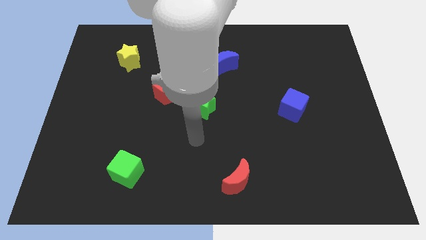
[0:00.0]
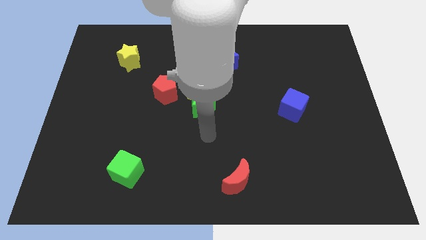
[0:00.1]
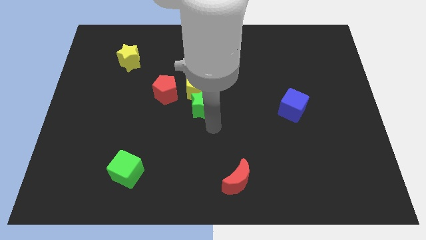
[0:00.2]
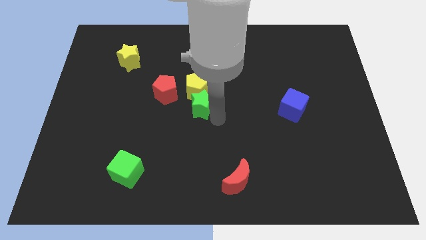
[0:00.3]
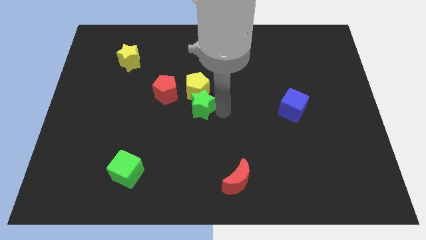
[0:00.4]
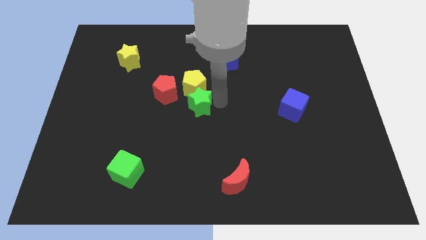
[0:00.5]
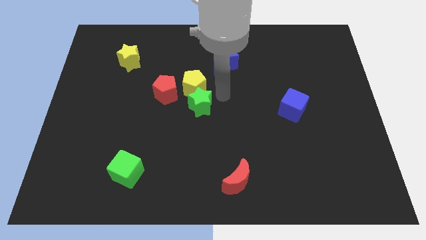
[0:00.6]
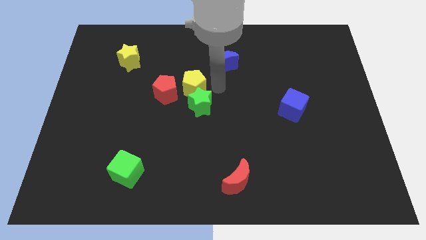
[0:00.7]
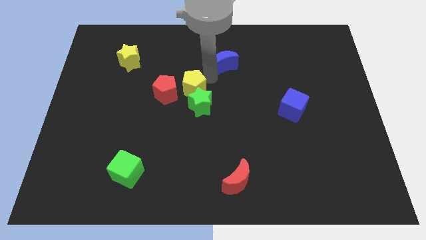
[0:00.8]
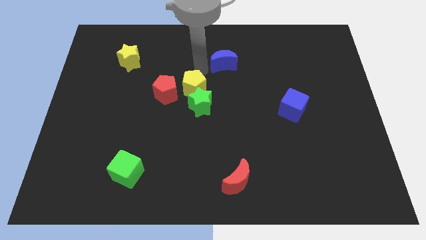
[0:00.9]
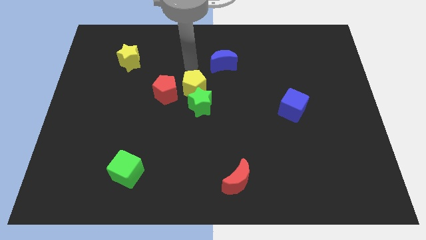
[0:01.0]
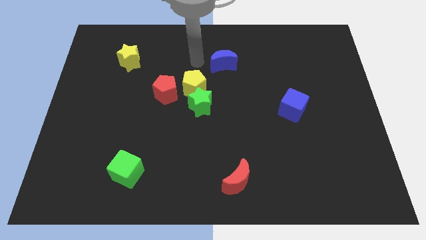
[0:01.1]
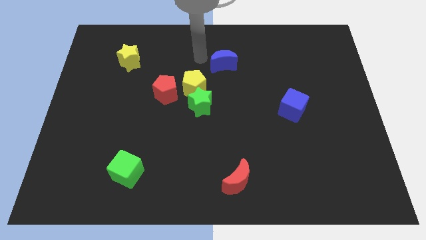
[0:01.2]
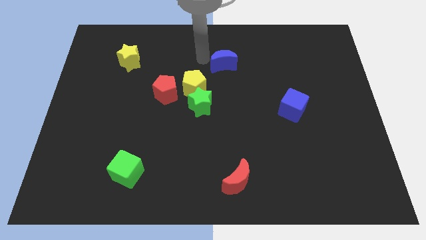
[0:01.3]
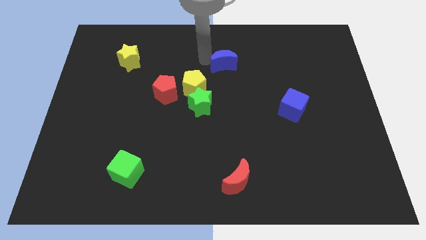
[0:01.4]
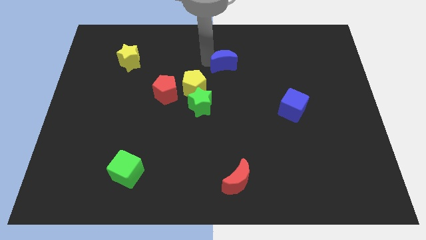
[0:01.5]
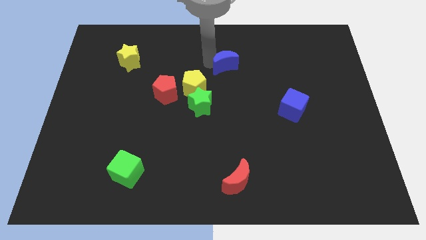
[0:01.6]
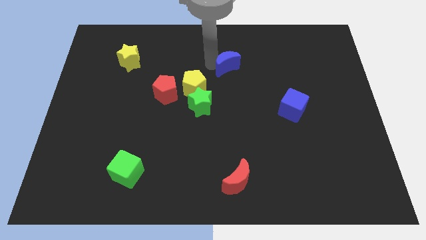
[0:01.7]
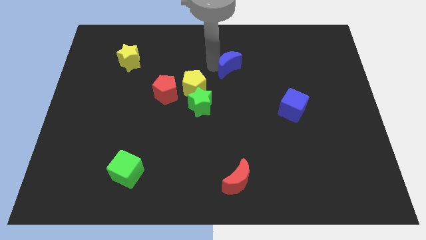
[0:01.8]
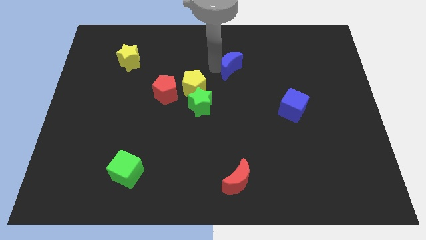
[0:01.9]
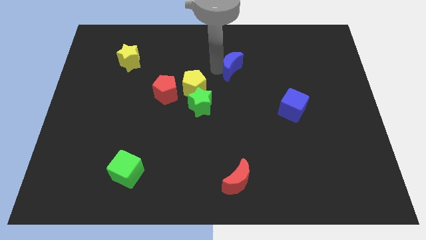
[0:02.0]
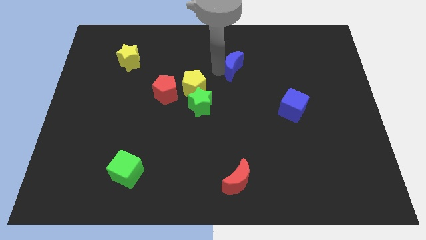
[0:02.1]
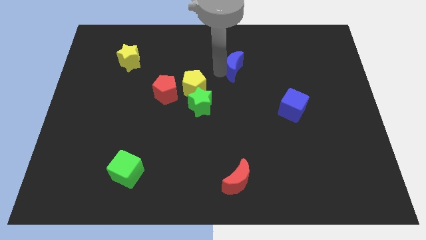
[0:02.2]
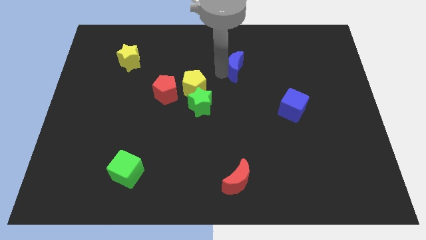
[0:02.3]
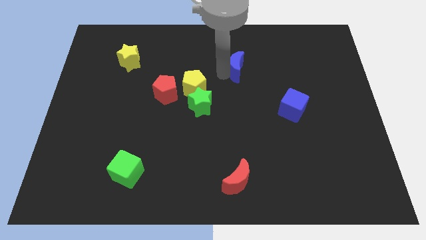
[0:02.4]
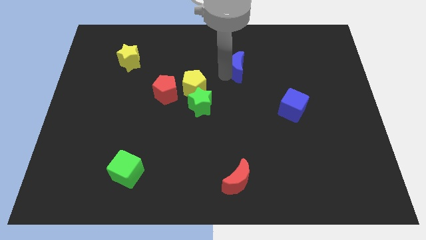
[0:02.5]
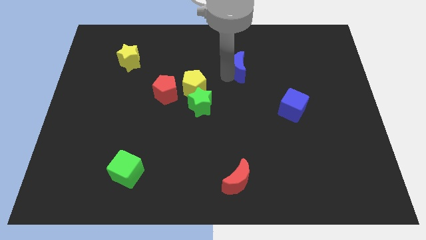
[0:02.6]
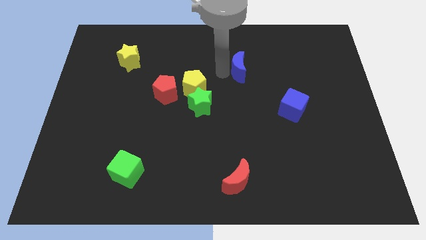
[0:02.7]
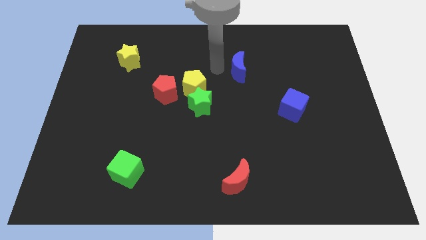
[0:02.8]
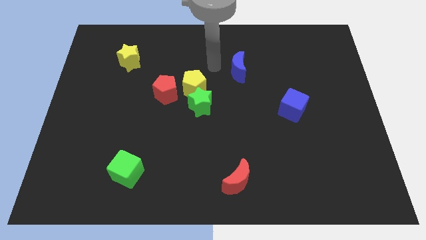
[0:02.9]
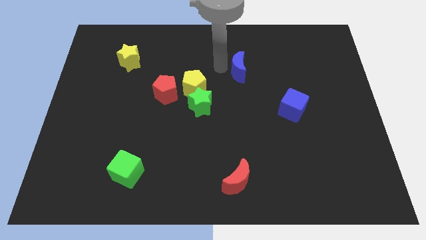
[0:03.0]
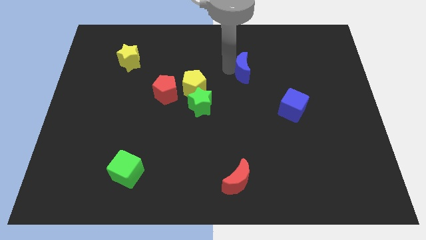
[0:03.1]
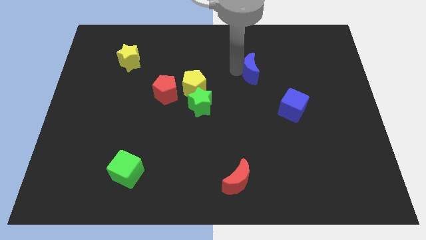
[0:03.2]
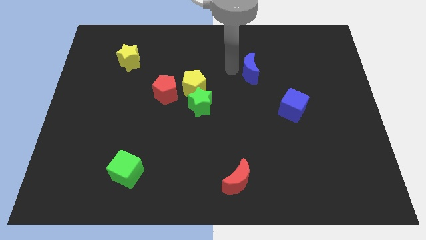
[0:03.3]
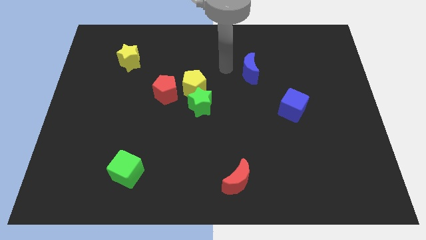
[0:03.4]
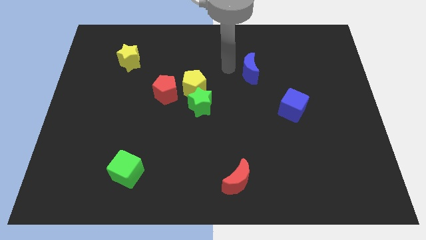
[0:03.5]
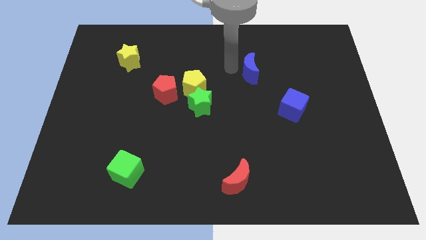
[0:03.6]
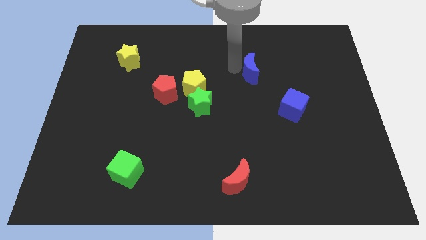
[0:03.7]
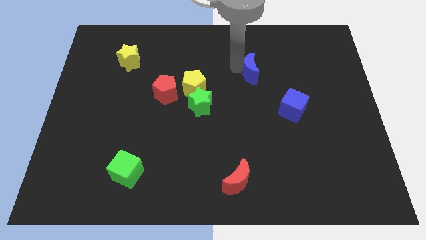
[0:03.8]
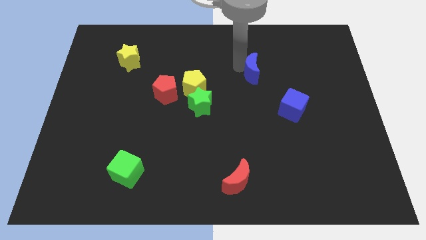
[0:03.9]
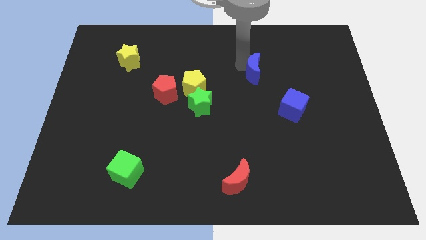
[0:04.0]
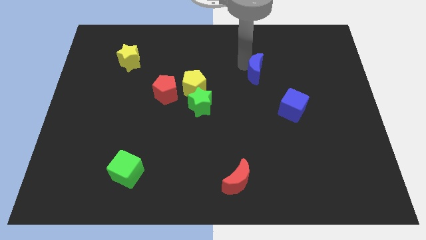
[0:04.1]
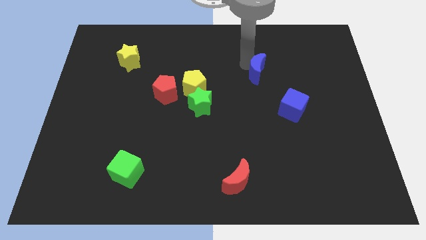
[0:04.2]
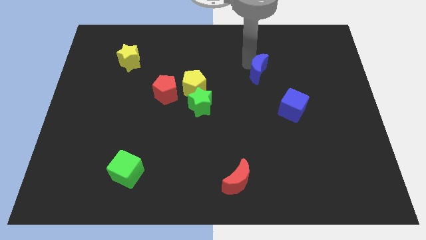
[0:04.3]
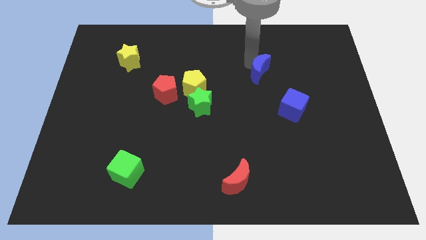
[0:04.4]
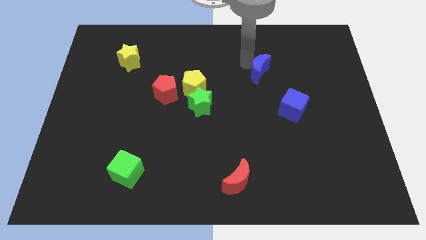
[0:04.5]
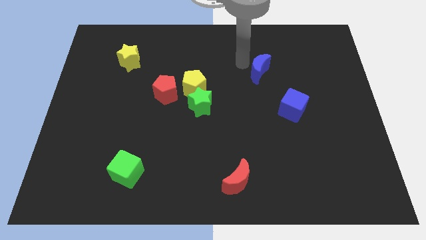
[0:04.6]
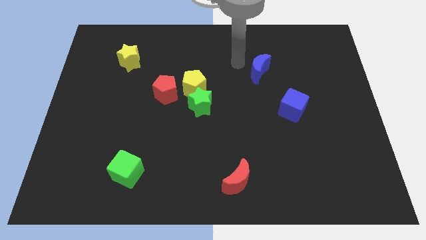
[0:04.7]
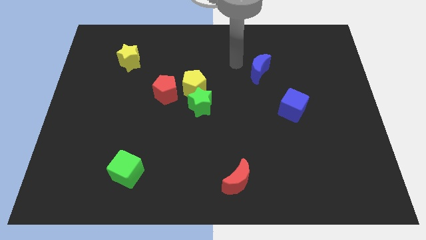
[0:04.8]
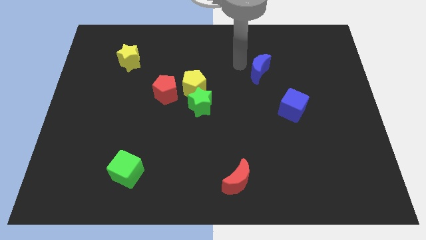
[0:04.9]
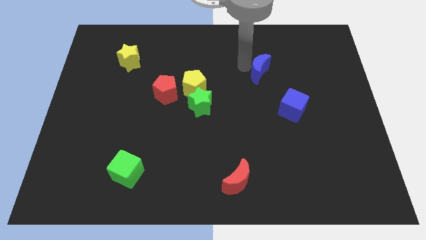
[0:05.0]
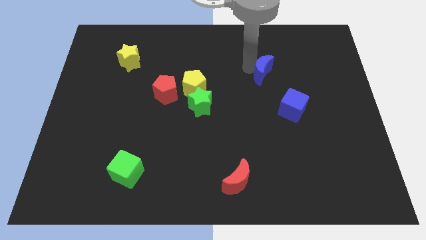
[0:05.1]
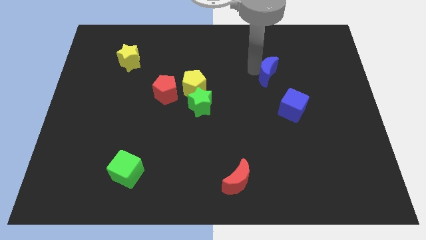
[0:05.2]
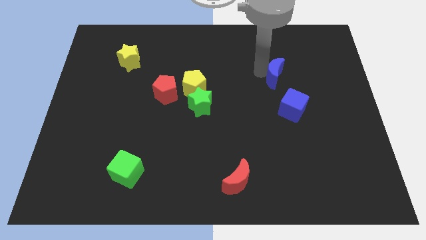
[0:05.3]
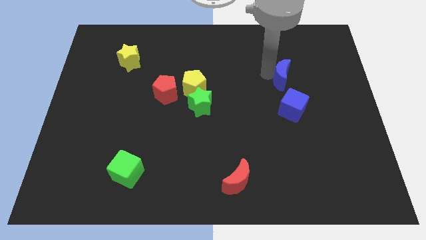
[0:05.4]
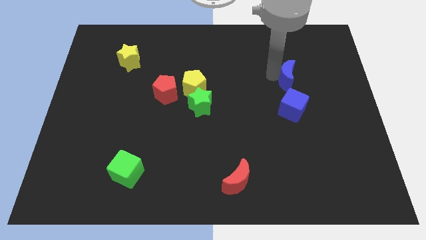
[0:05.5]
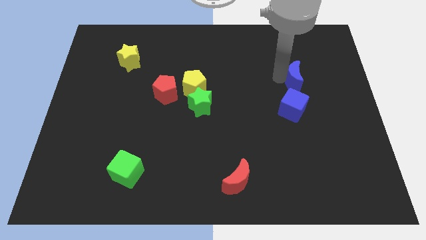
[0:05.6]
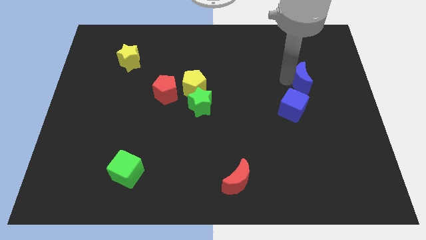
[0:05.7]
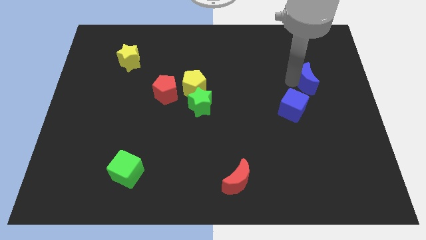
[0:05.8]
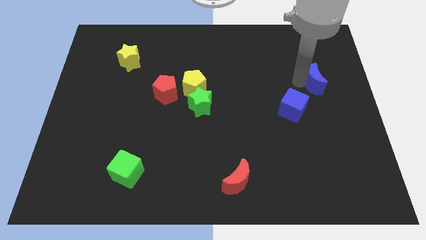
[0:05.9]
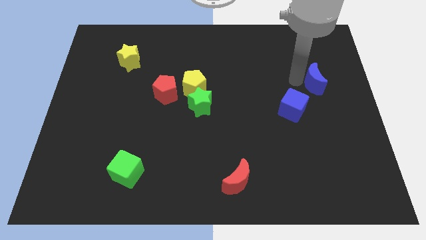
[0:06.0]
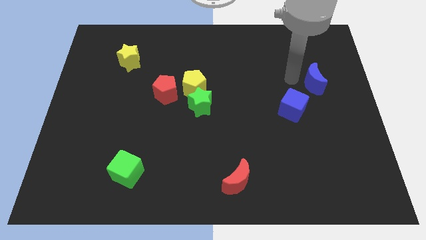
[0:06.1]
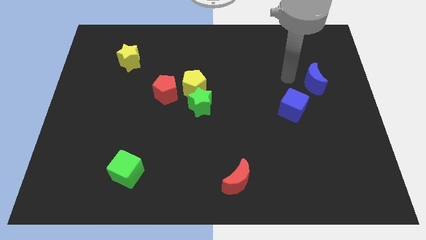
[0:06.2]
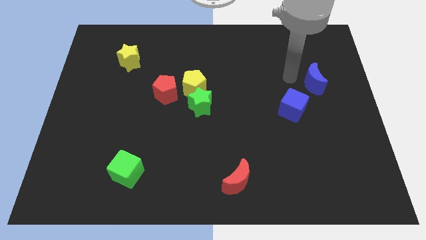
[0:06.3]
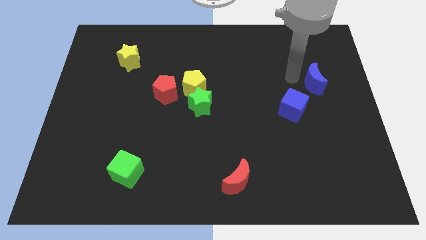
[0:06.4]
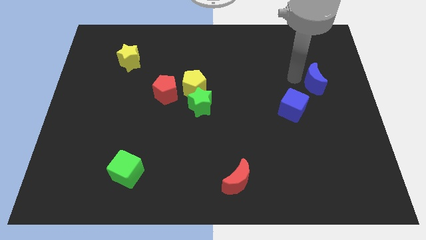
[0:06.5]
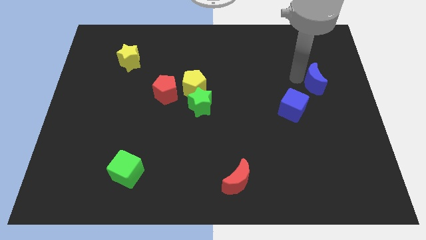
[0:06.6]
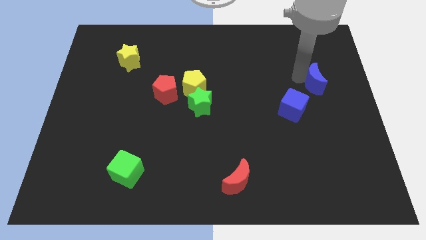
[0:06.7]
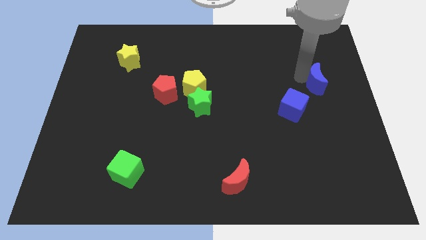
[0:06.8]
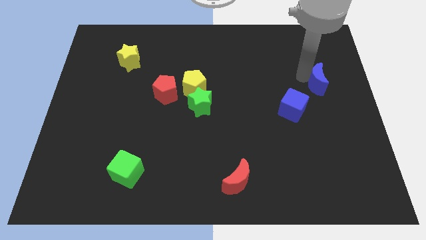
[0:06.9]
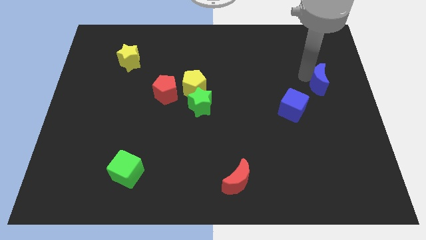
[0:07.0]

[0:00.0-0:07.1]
slide the blue moon to the center right
